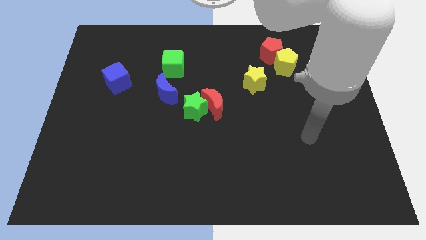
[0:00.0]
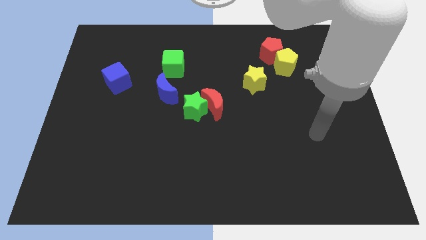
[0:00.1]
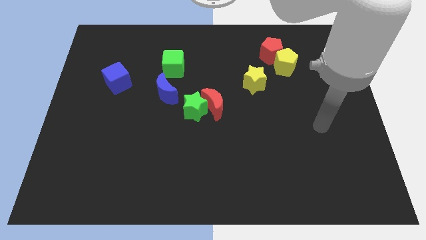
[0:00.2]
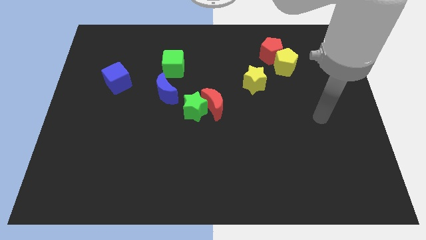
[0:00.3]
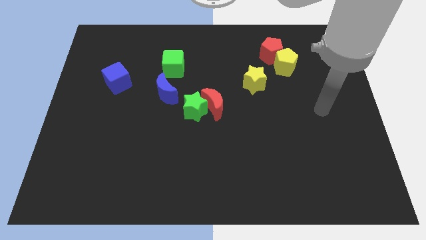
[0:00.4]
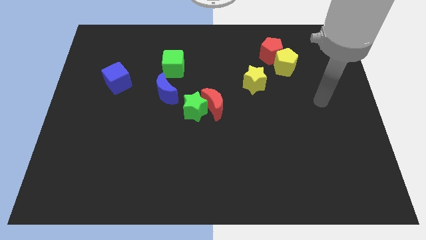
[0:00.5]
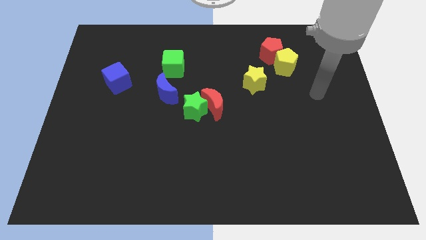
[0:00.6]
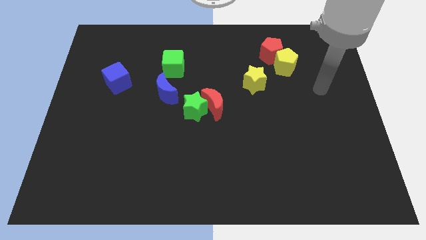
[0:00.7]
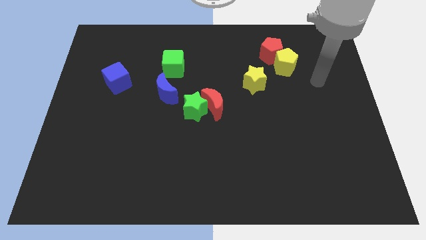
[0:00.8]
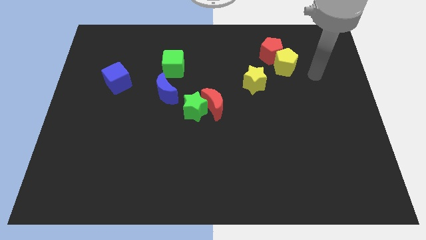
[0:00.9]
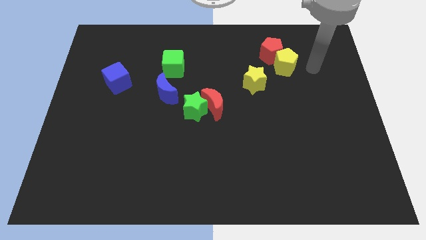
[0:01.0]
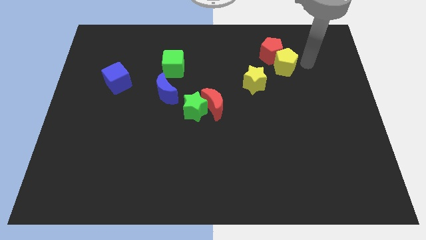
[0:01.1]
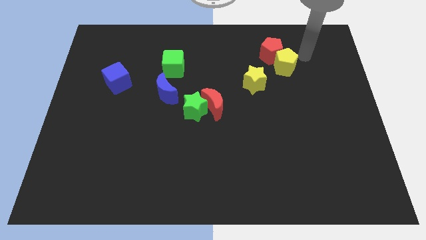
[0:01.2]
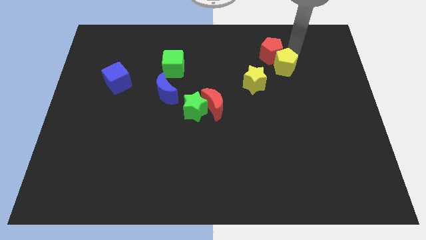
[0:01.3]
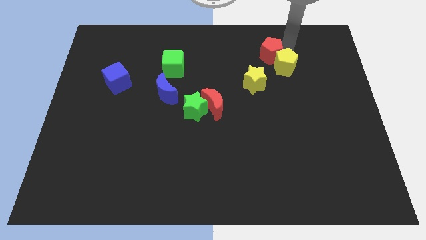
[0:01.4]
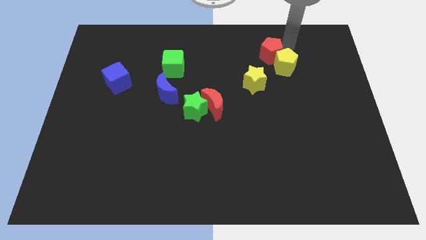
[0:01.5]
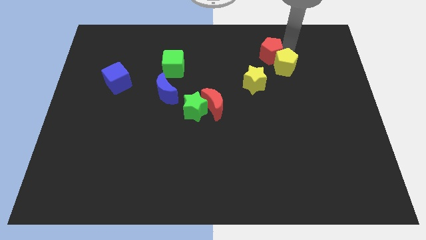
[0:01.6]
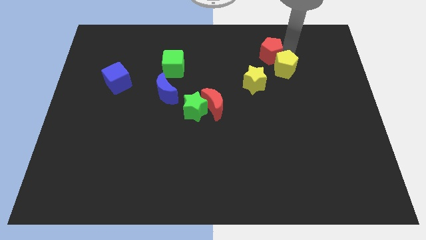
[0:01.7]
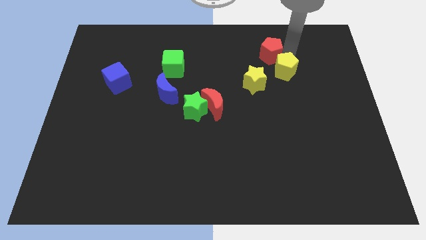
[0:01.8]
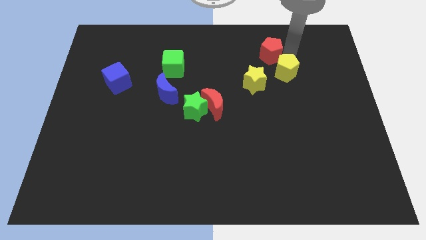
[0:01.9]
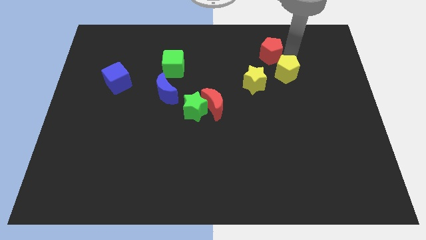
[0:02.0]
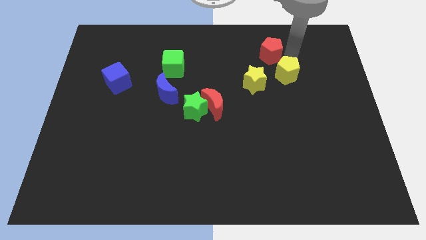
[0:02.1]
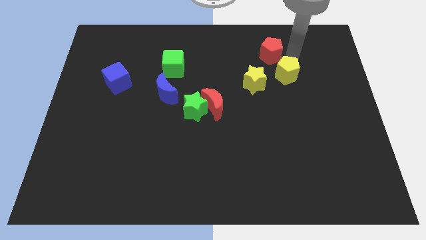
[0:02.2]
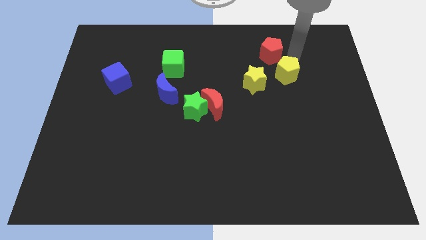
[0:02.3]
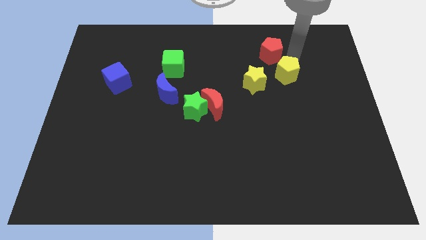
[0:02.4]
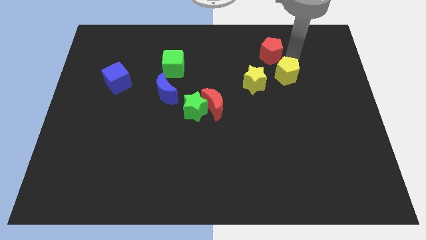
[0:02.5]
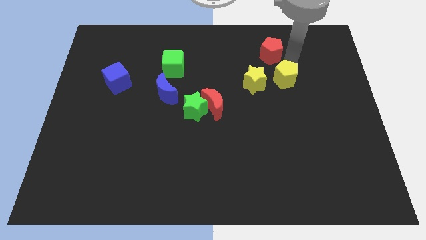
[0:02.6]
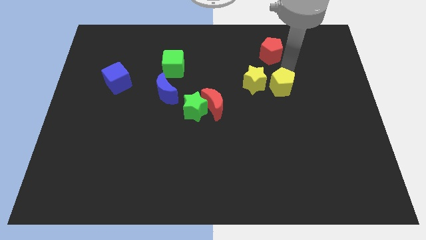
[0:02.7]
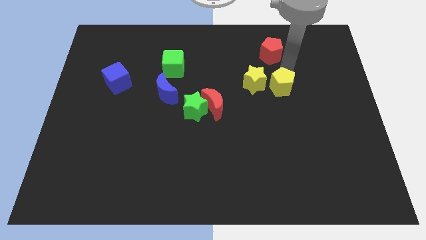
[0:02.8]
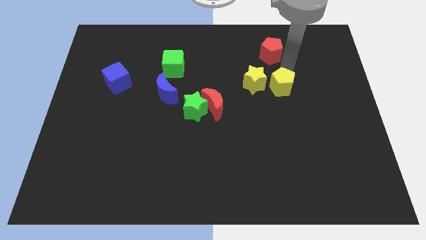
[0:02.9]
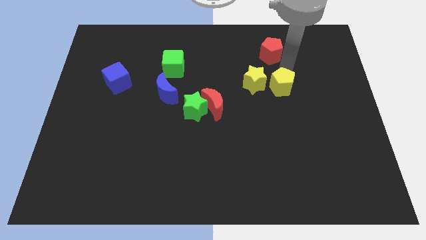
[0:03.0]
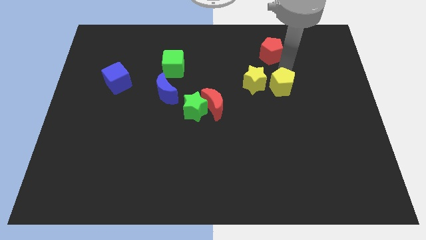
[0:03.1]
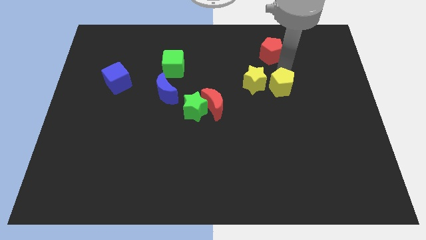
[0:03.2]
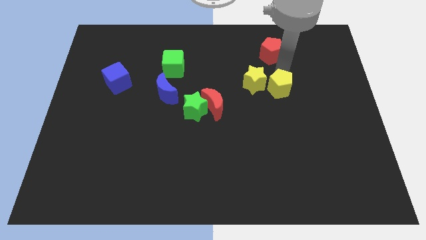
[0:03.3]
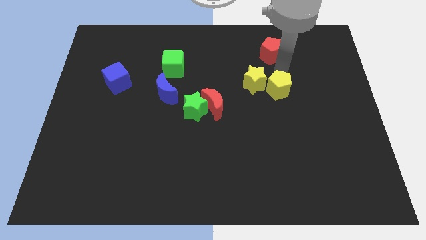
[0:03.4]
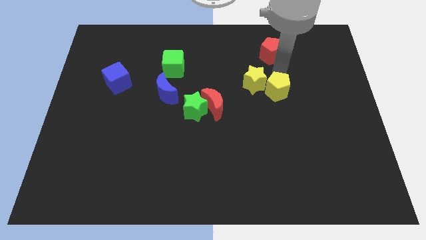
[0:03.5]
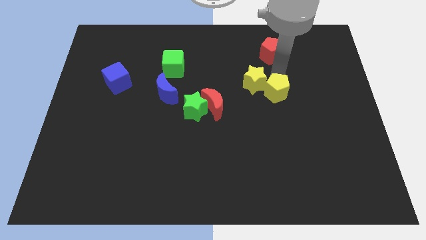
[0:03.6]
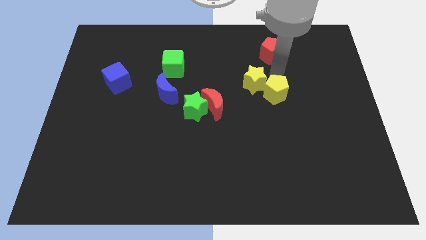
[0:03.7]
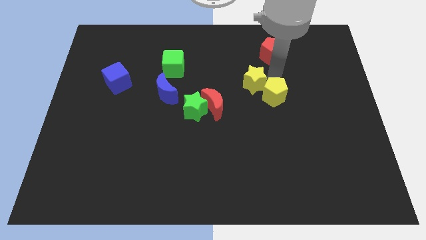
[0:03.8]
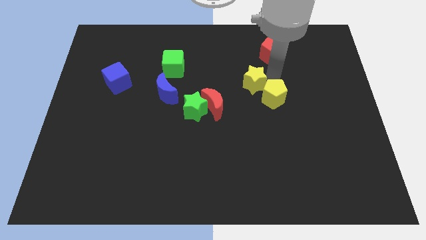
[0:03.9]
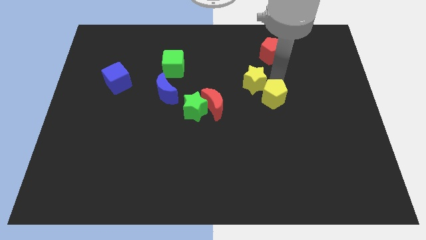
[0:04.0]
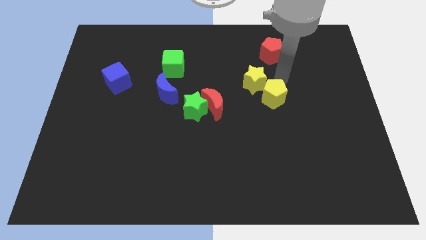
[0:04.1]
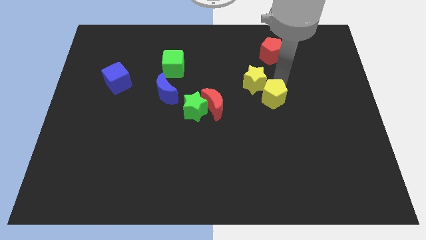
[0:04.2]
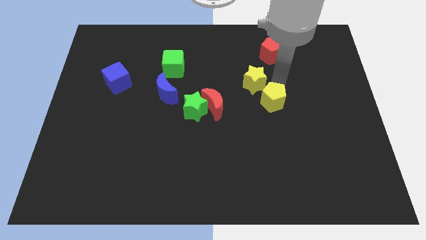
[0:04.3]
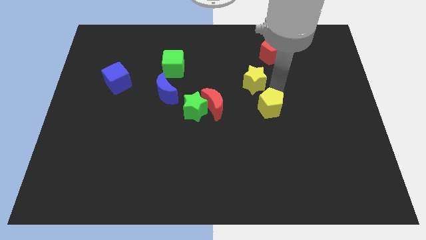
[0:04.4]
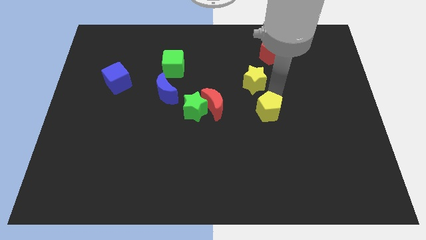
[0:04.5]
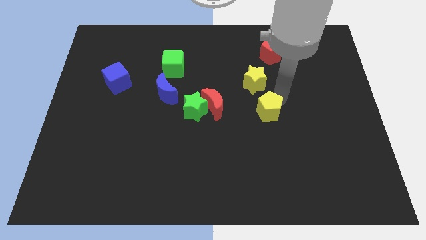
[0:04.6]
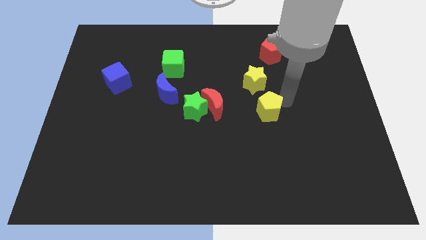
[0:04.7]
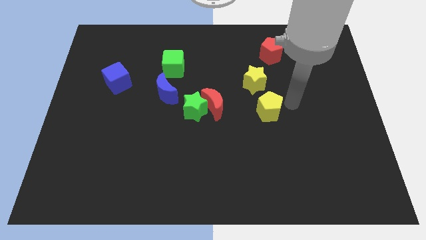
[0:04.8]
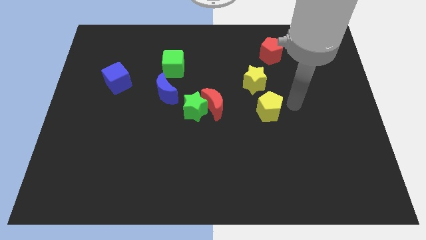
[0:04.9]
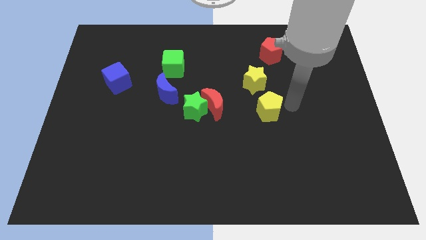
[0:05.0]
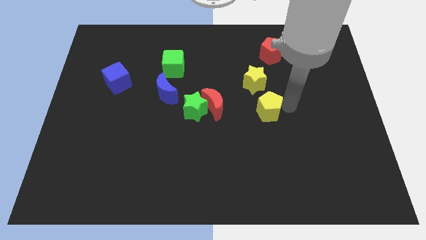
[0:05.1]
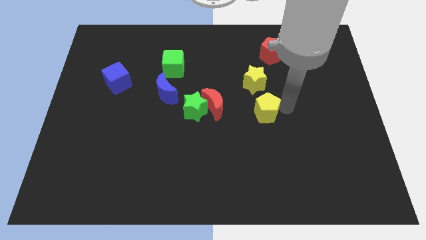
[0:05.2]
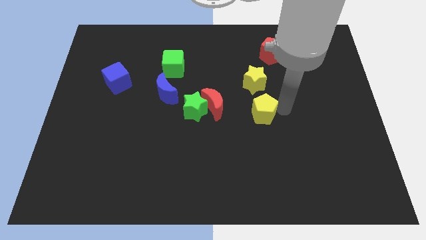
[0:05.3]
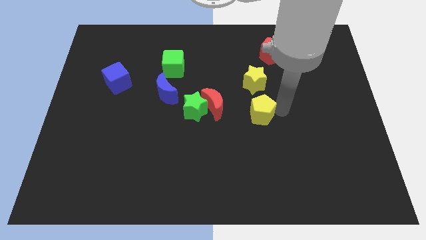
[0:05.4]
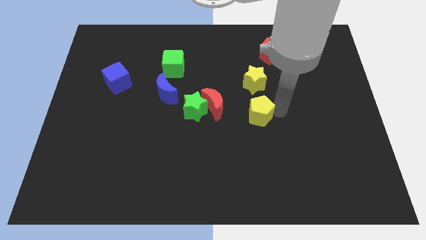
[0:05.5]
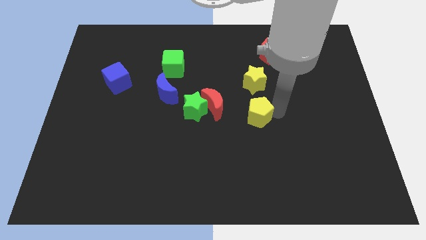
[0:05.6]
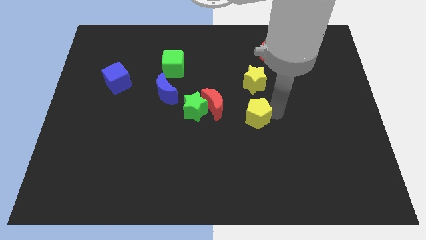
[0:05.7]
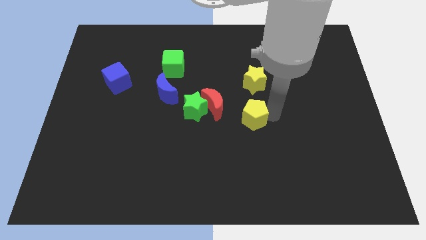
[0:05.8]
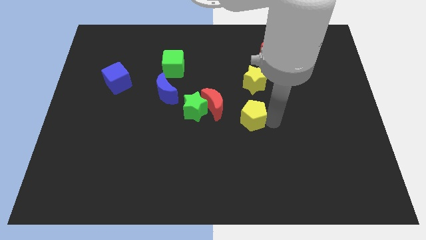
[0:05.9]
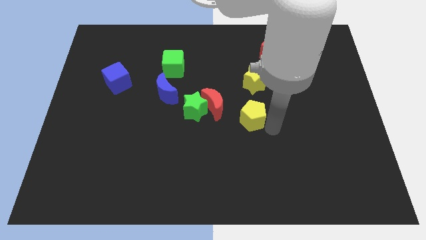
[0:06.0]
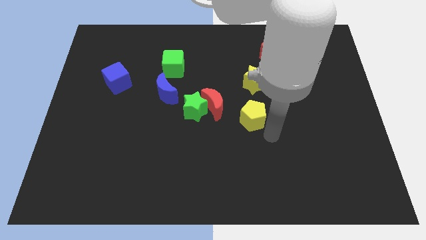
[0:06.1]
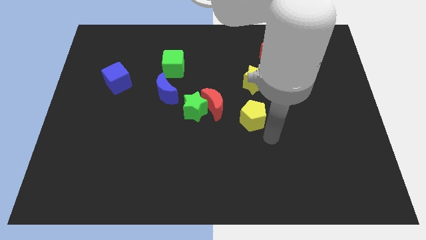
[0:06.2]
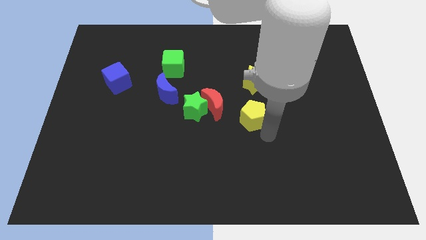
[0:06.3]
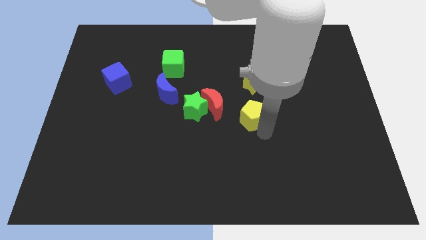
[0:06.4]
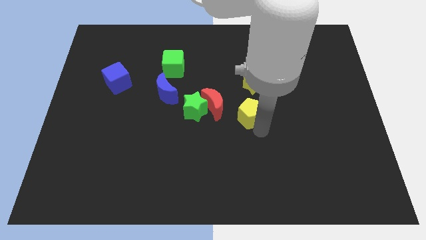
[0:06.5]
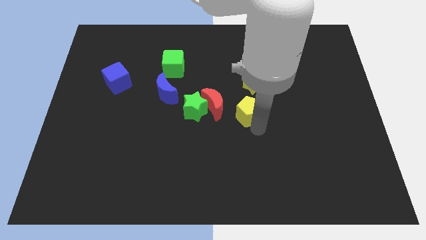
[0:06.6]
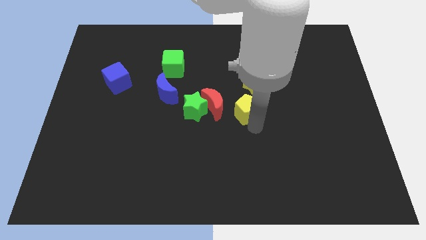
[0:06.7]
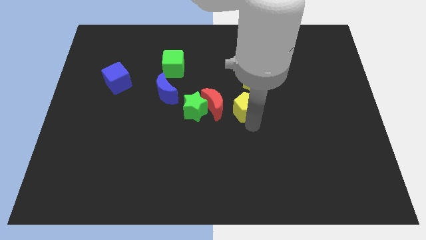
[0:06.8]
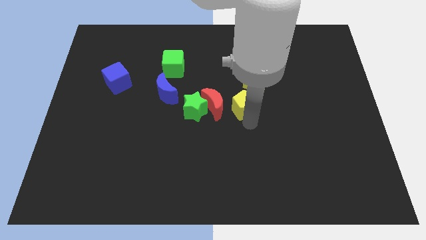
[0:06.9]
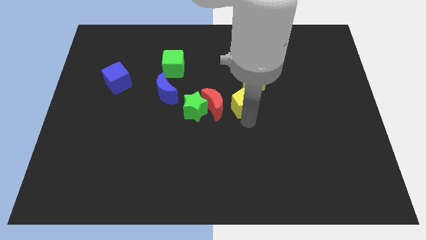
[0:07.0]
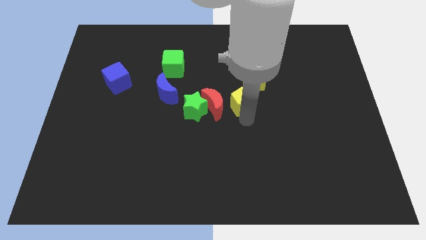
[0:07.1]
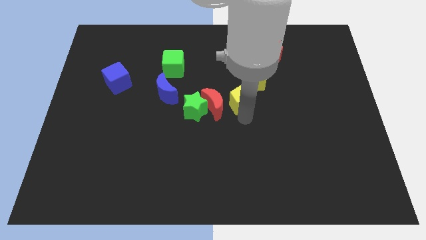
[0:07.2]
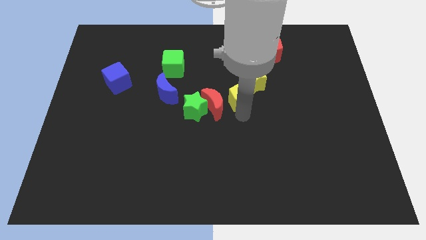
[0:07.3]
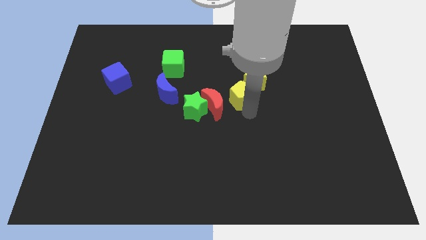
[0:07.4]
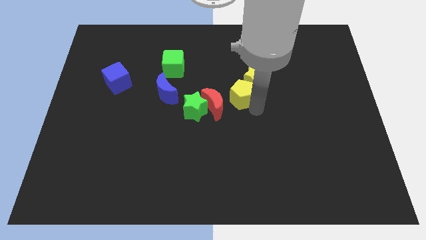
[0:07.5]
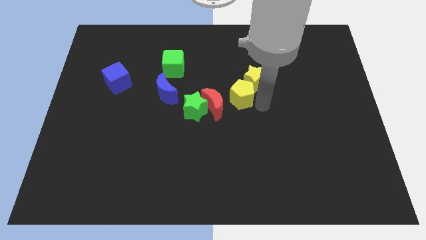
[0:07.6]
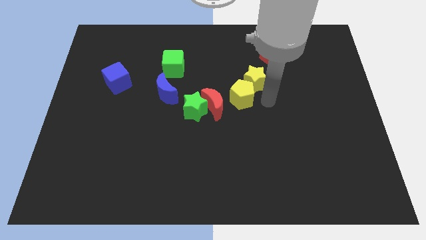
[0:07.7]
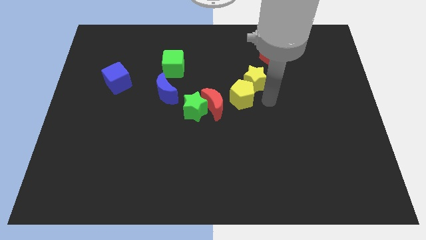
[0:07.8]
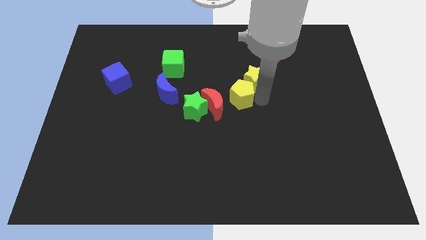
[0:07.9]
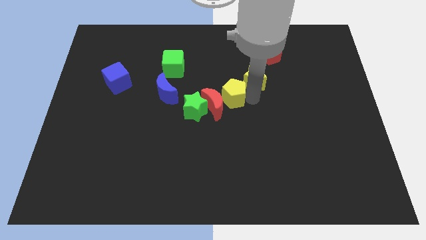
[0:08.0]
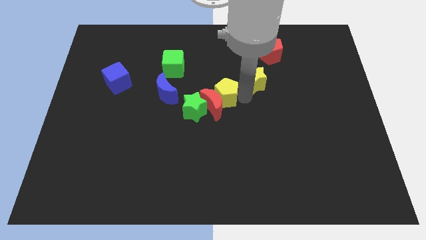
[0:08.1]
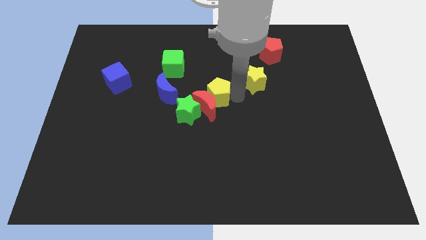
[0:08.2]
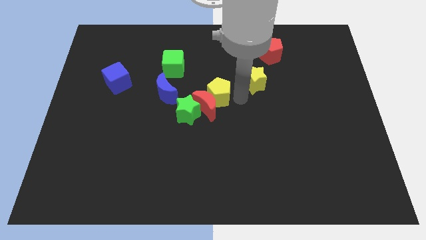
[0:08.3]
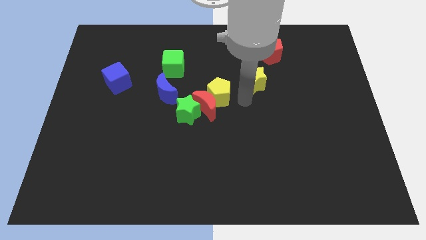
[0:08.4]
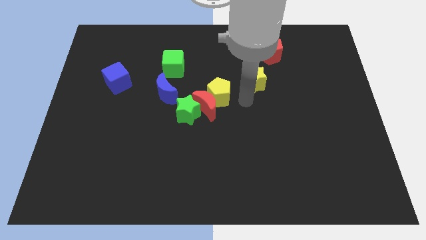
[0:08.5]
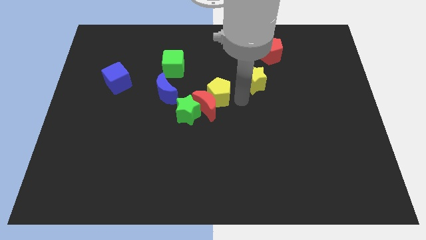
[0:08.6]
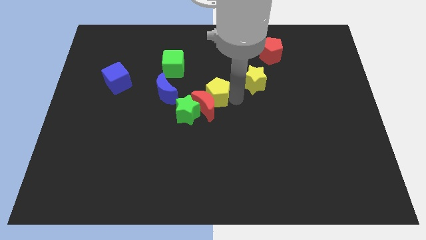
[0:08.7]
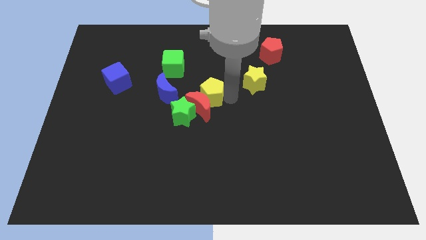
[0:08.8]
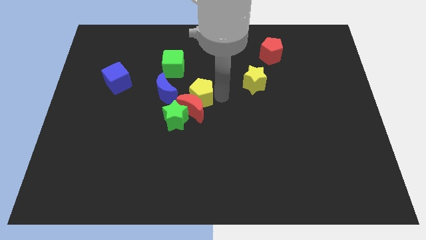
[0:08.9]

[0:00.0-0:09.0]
slide the yellow pentagon to the top left side of the red moon
